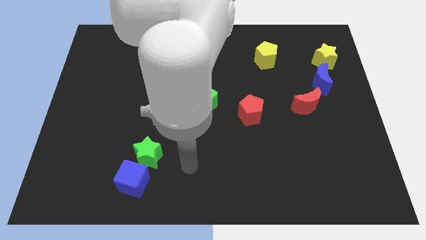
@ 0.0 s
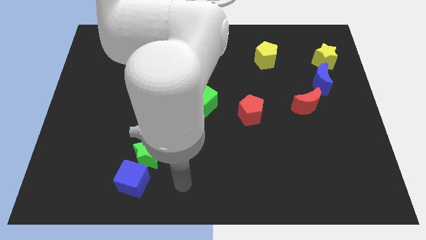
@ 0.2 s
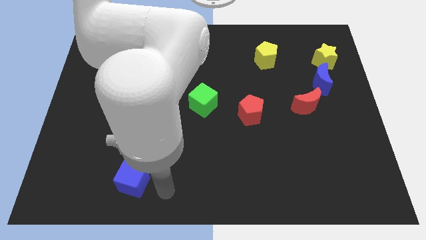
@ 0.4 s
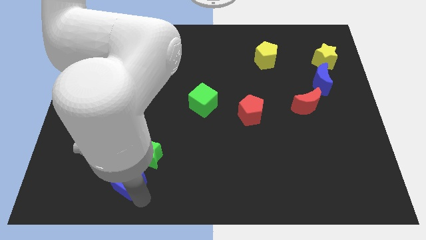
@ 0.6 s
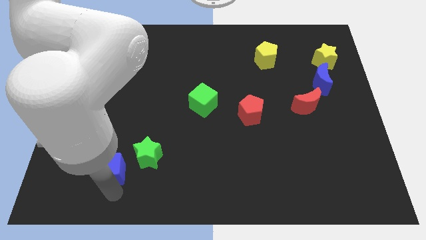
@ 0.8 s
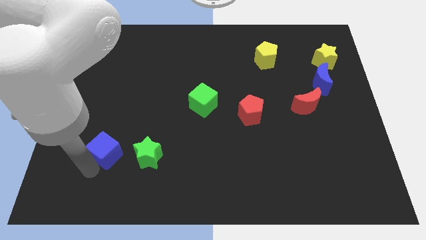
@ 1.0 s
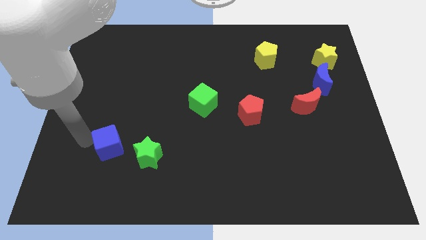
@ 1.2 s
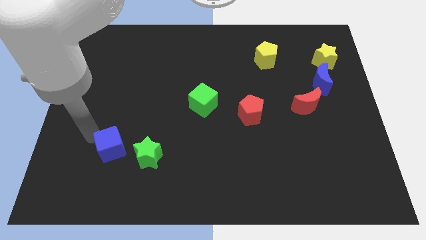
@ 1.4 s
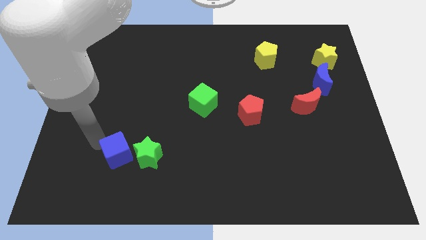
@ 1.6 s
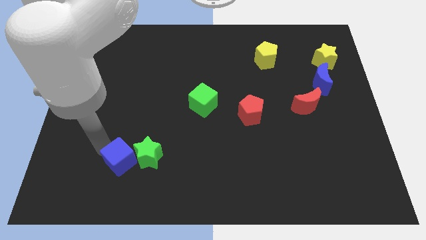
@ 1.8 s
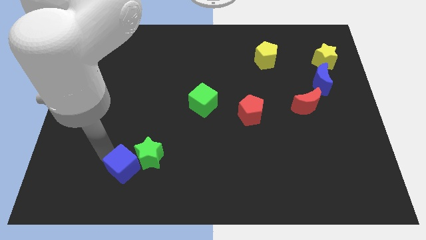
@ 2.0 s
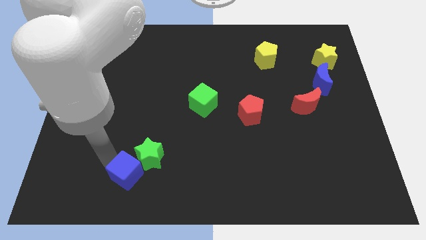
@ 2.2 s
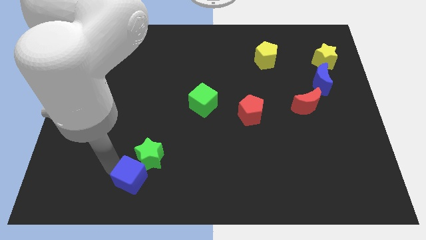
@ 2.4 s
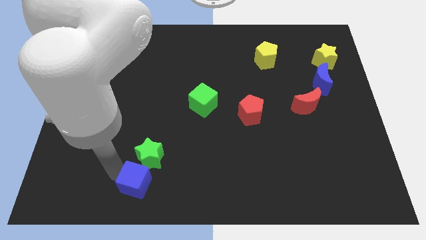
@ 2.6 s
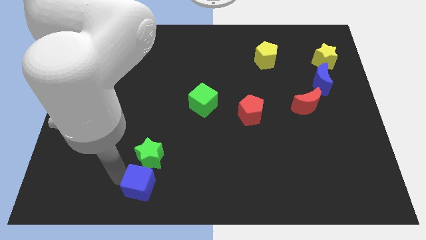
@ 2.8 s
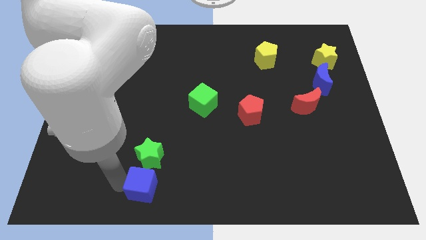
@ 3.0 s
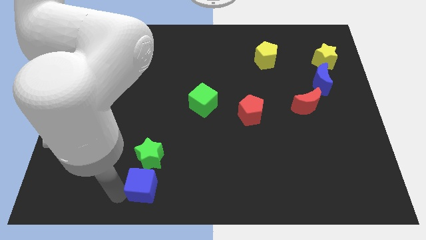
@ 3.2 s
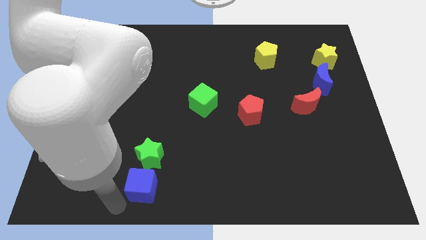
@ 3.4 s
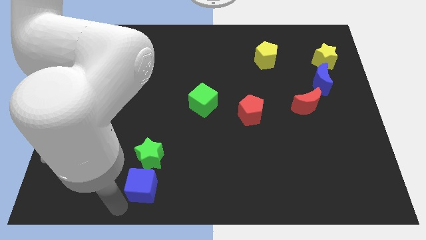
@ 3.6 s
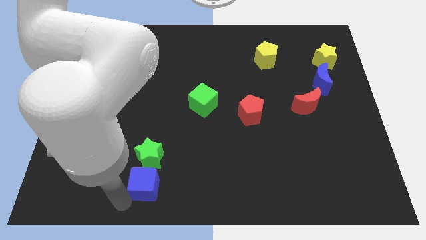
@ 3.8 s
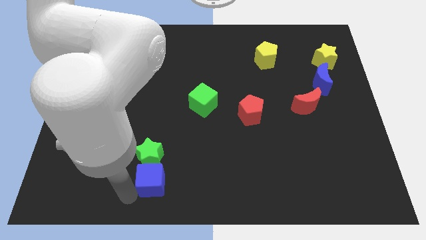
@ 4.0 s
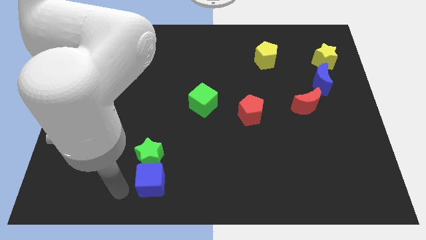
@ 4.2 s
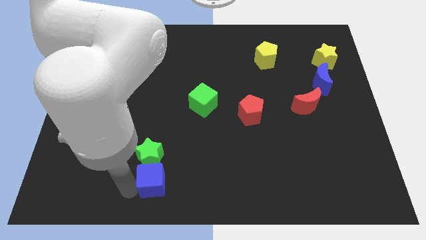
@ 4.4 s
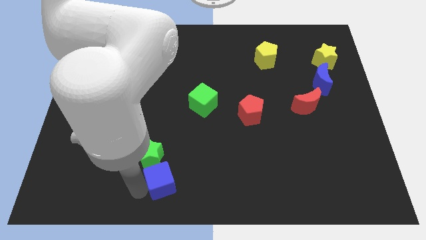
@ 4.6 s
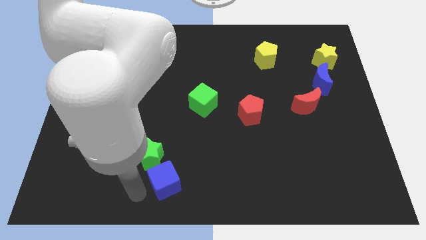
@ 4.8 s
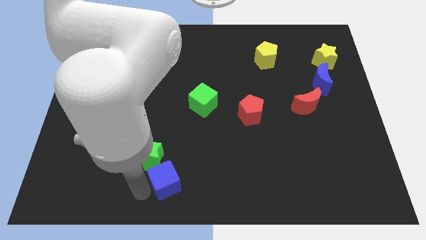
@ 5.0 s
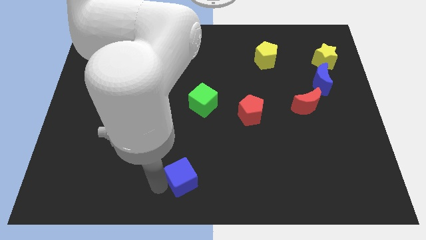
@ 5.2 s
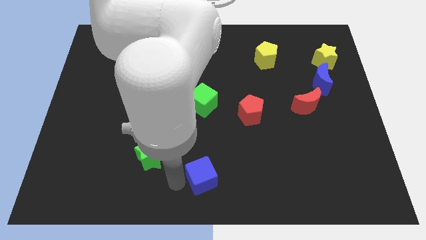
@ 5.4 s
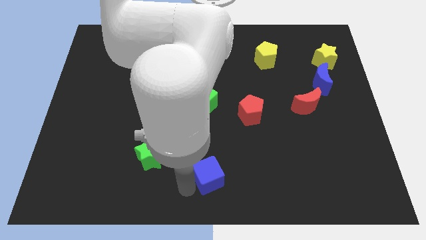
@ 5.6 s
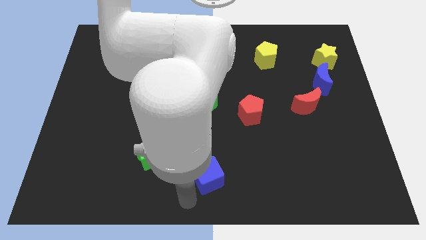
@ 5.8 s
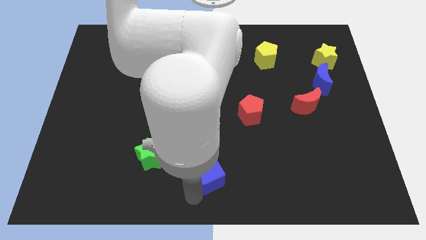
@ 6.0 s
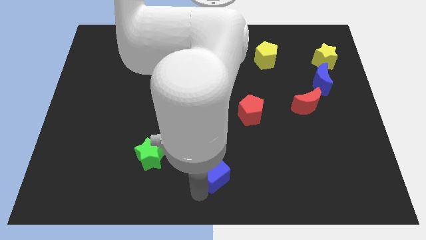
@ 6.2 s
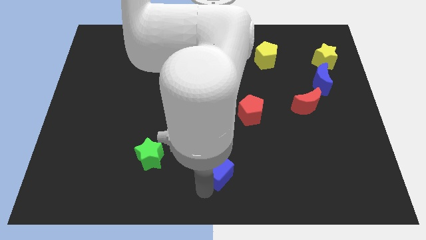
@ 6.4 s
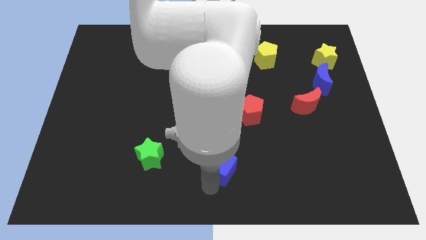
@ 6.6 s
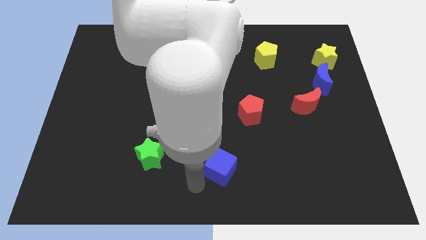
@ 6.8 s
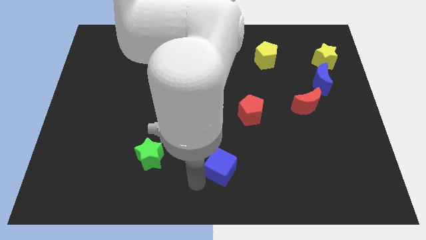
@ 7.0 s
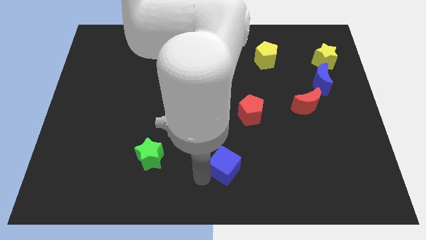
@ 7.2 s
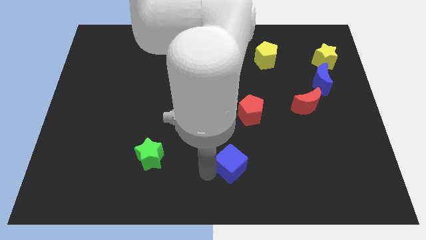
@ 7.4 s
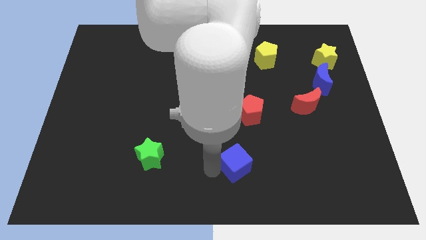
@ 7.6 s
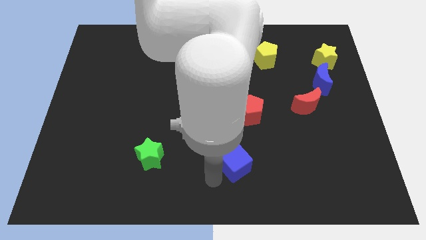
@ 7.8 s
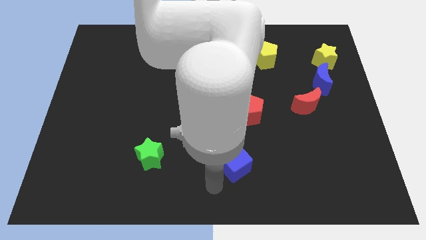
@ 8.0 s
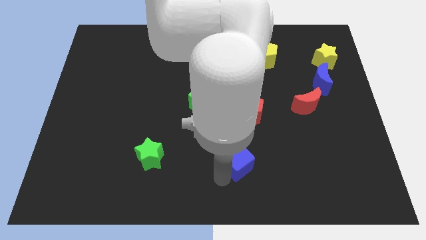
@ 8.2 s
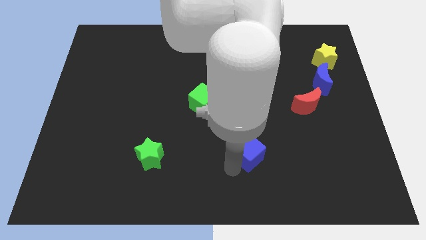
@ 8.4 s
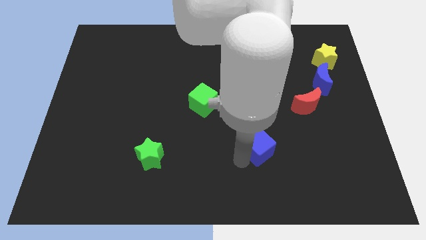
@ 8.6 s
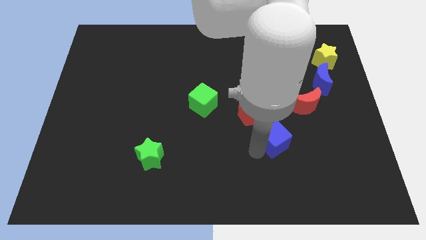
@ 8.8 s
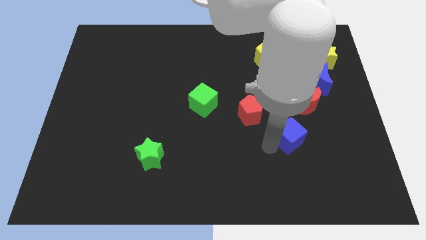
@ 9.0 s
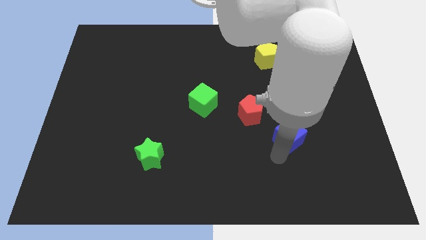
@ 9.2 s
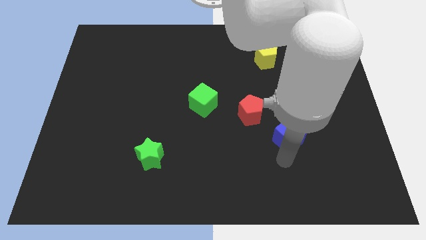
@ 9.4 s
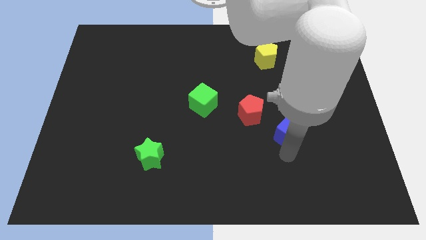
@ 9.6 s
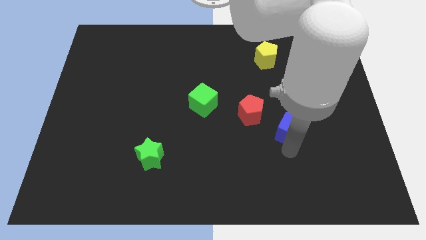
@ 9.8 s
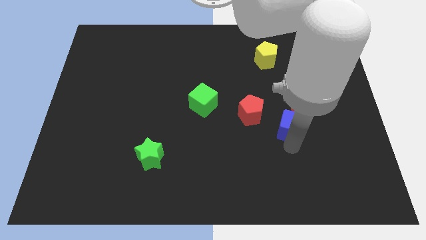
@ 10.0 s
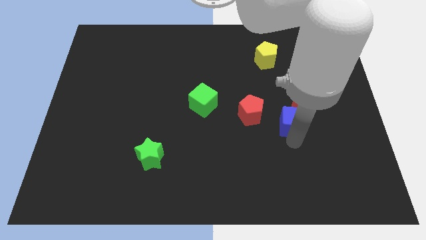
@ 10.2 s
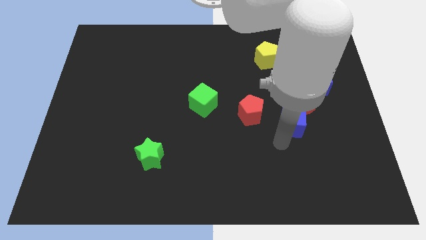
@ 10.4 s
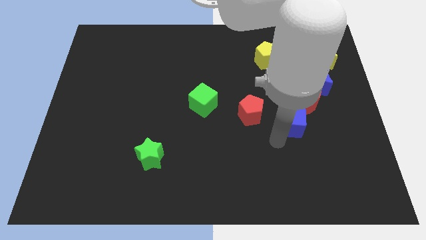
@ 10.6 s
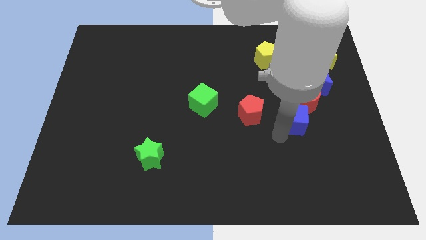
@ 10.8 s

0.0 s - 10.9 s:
slide the blue cube next to the red moon

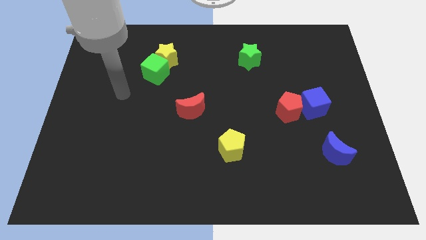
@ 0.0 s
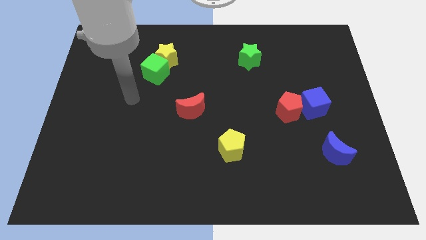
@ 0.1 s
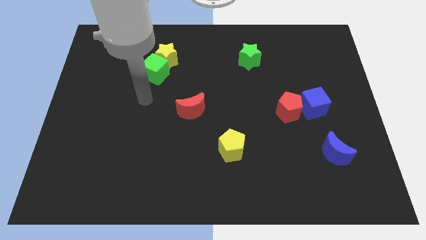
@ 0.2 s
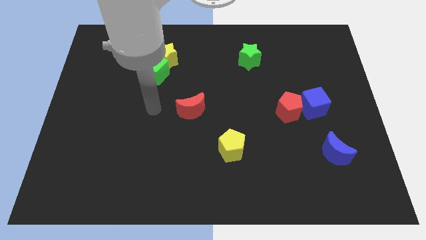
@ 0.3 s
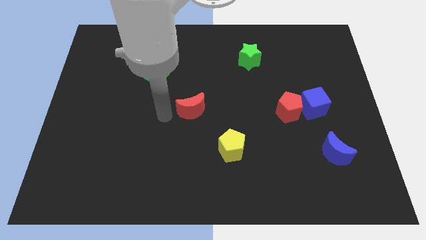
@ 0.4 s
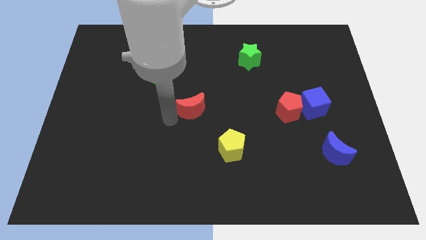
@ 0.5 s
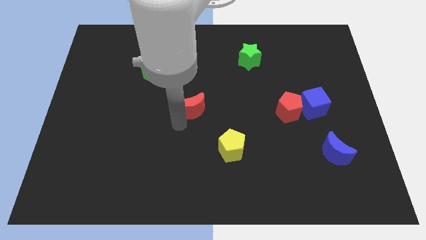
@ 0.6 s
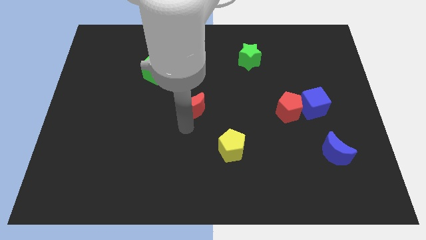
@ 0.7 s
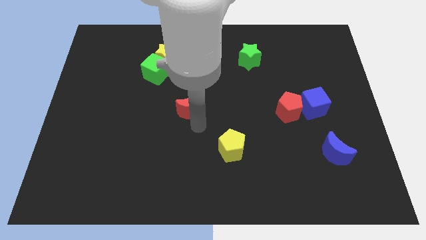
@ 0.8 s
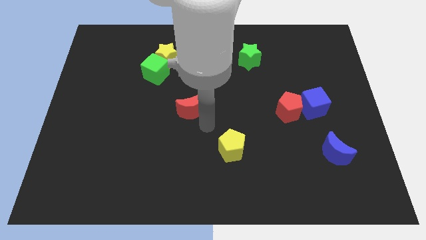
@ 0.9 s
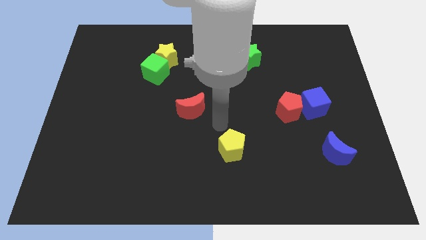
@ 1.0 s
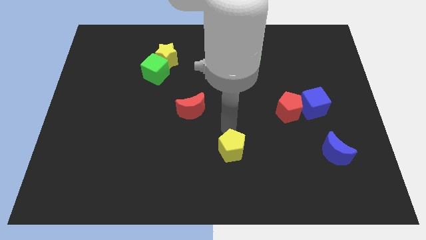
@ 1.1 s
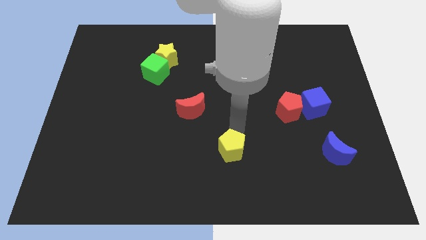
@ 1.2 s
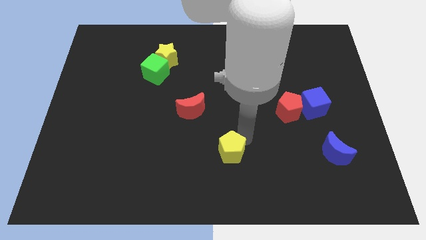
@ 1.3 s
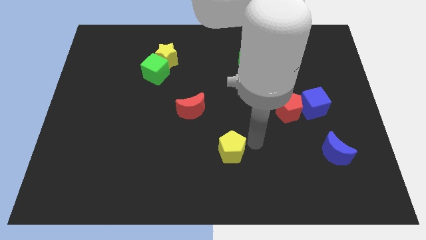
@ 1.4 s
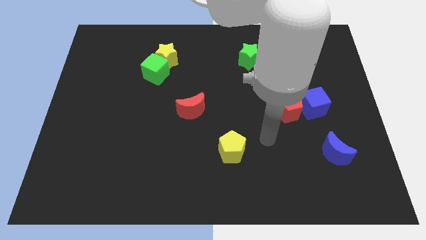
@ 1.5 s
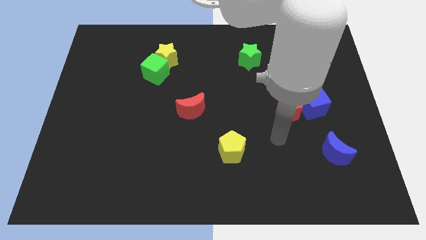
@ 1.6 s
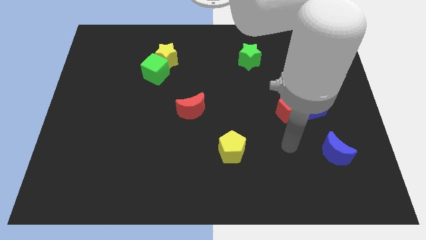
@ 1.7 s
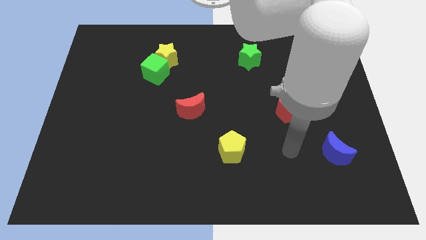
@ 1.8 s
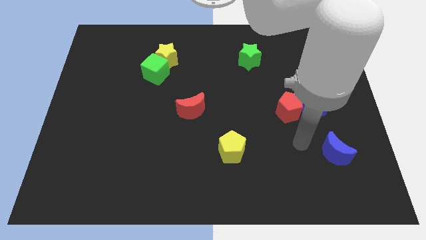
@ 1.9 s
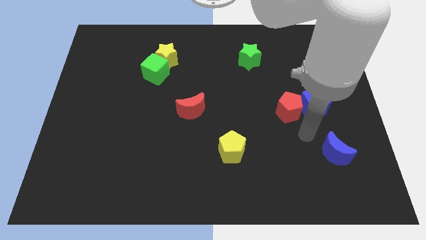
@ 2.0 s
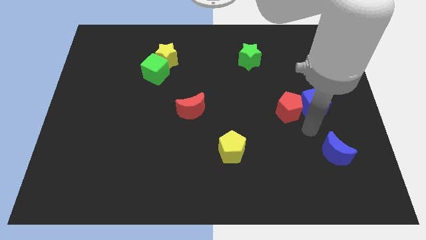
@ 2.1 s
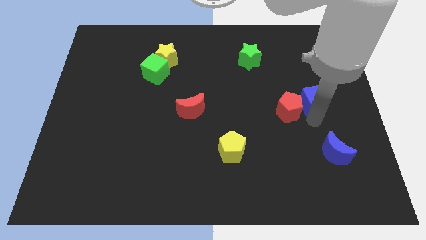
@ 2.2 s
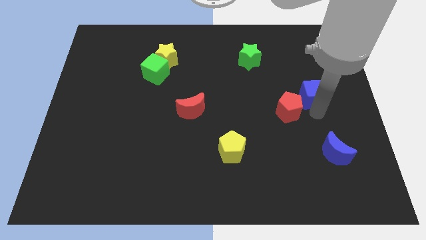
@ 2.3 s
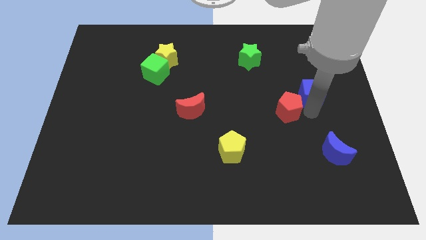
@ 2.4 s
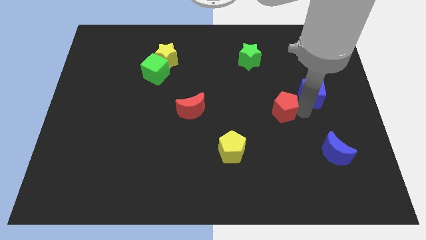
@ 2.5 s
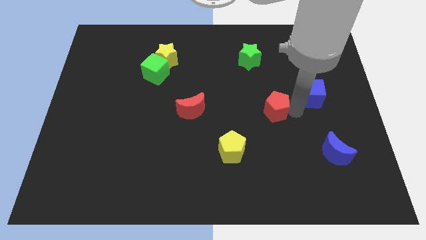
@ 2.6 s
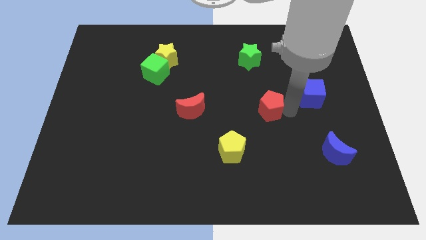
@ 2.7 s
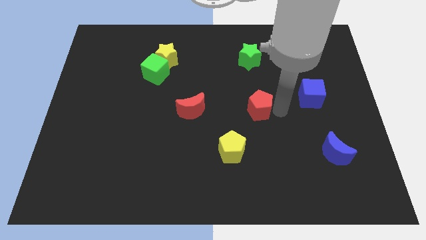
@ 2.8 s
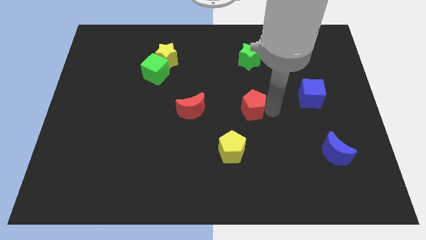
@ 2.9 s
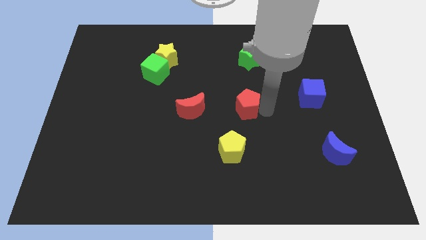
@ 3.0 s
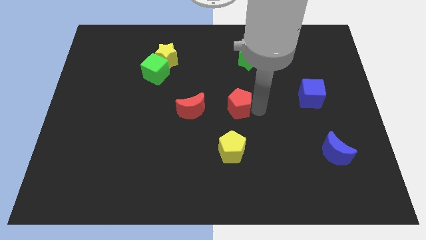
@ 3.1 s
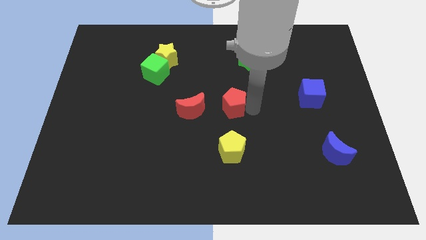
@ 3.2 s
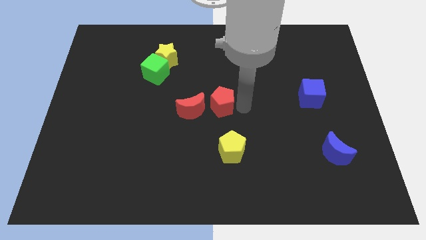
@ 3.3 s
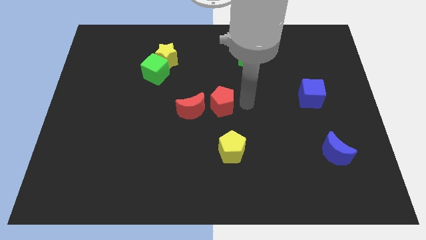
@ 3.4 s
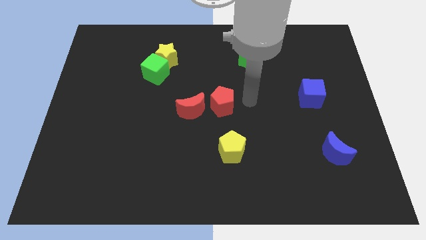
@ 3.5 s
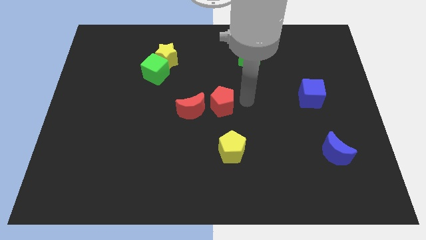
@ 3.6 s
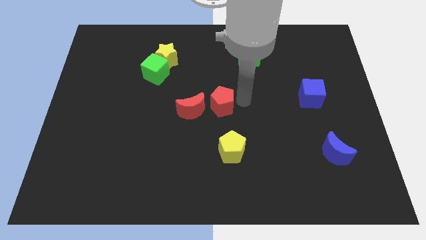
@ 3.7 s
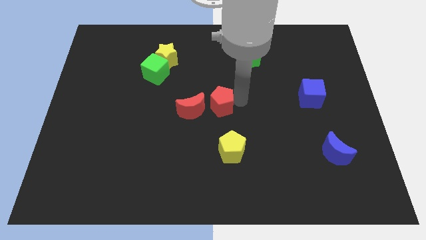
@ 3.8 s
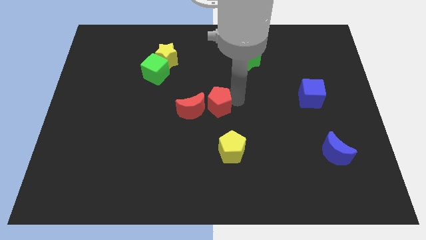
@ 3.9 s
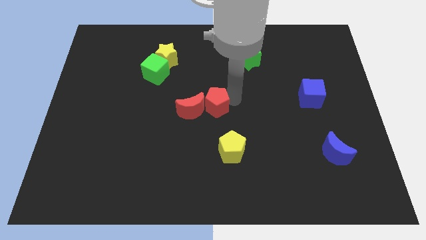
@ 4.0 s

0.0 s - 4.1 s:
slide the red pentagon towards the red moon
